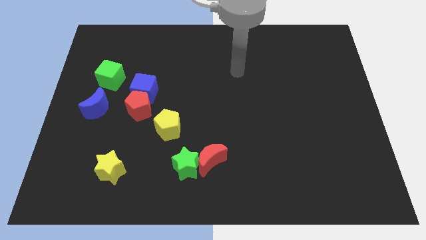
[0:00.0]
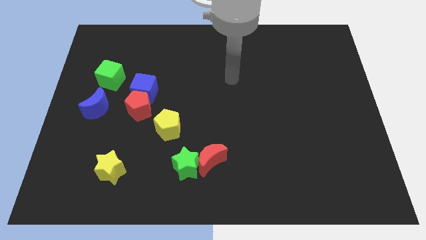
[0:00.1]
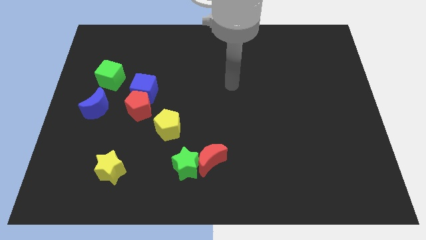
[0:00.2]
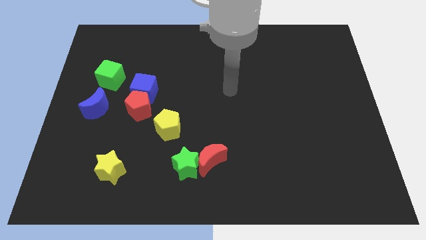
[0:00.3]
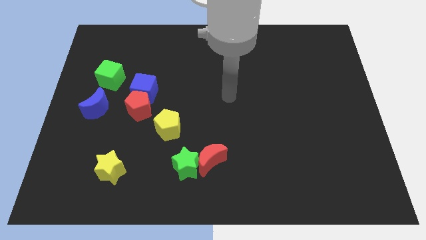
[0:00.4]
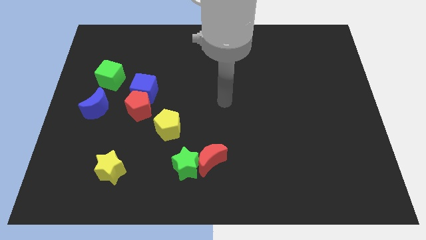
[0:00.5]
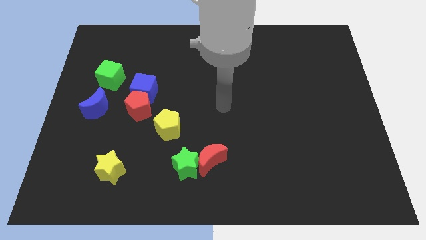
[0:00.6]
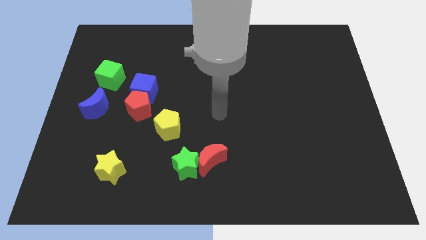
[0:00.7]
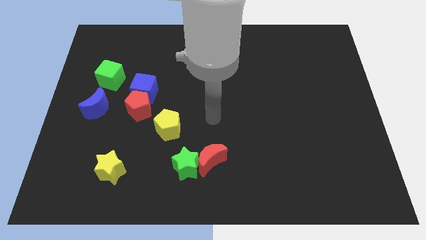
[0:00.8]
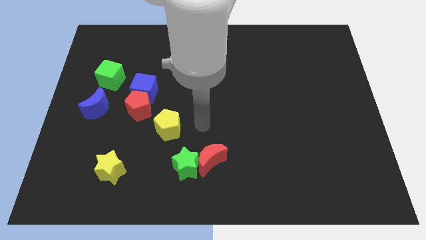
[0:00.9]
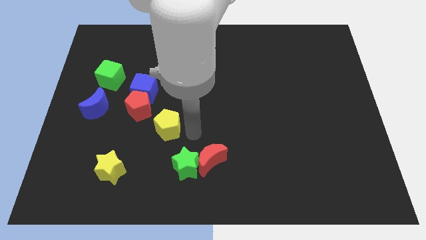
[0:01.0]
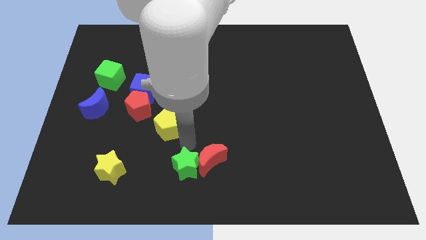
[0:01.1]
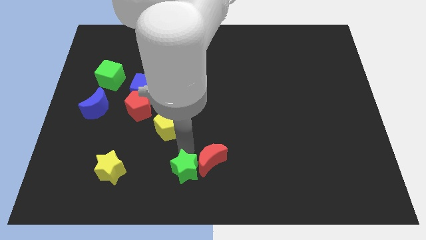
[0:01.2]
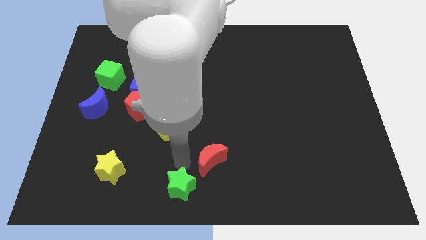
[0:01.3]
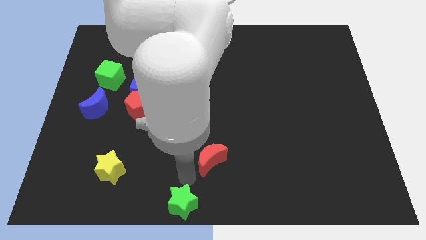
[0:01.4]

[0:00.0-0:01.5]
pull the red moon apart from the green star

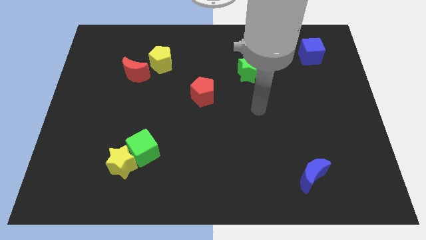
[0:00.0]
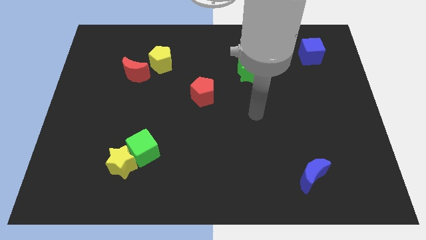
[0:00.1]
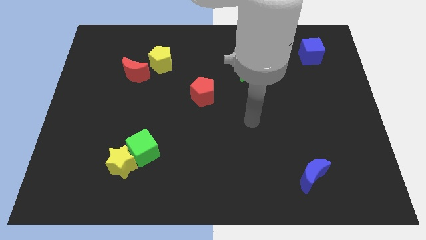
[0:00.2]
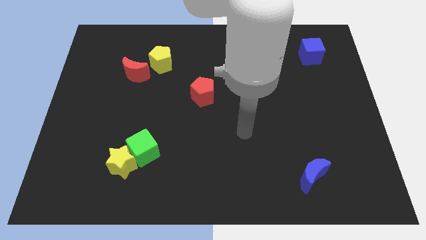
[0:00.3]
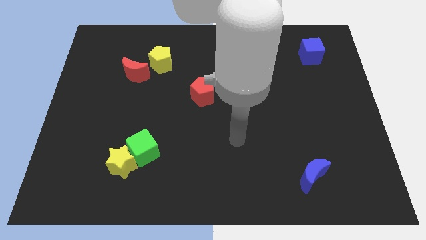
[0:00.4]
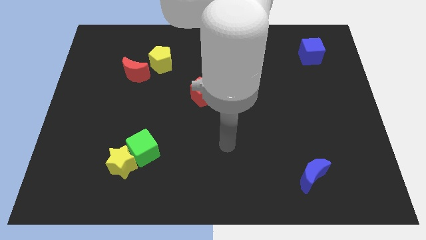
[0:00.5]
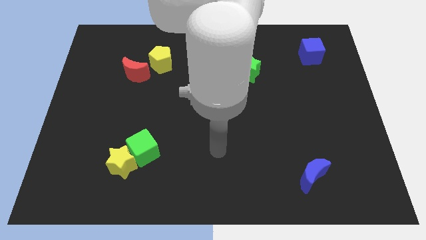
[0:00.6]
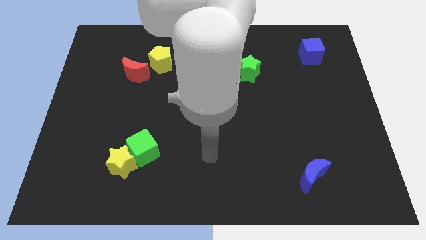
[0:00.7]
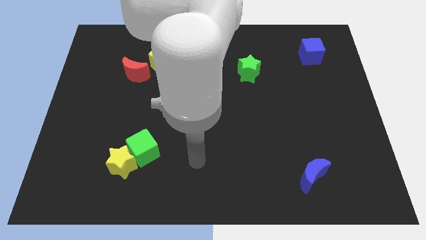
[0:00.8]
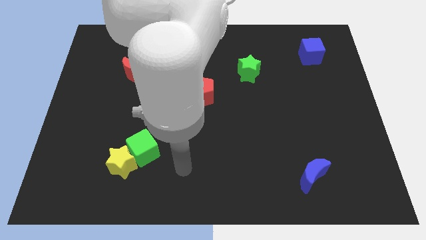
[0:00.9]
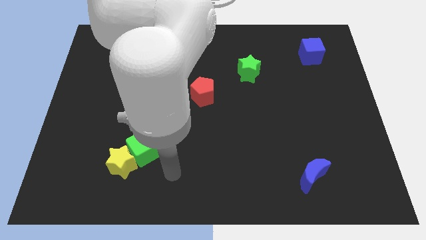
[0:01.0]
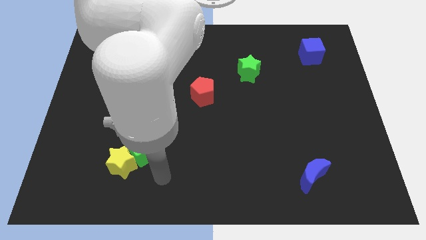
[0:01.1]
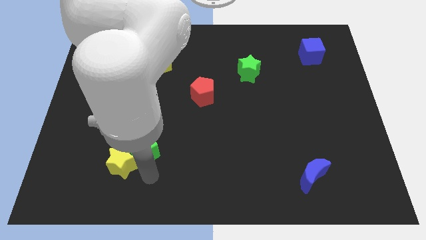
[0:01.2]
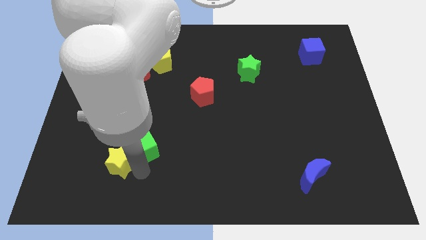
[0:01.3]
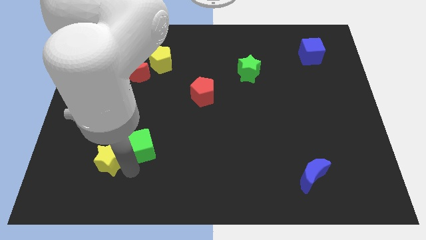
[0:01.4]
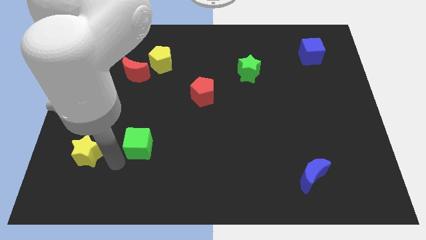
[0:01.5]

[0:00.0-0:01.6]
pull the green cube apart from the yellow star

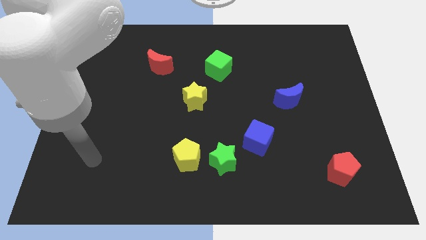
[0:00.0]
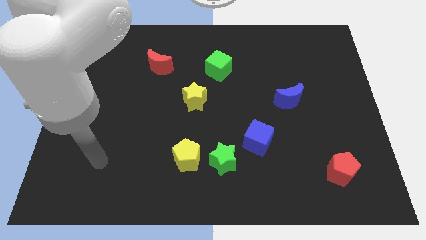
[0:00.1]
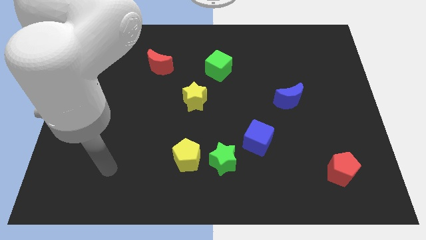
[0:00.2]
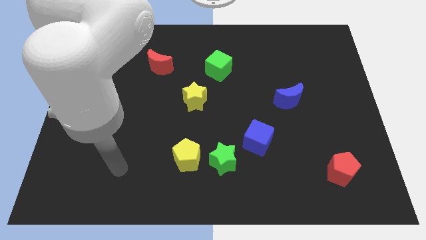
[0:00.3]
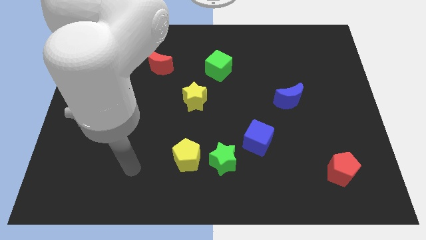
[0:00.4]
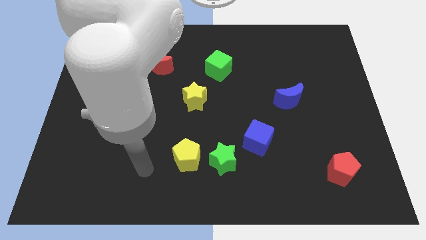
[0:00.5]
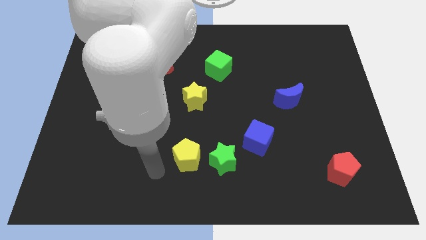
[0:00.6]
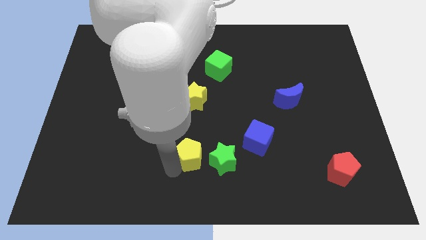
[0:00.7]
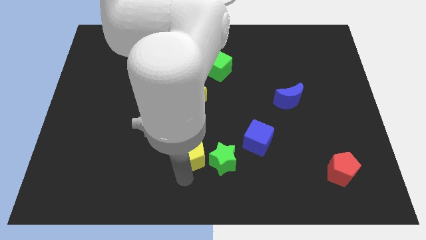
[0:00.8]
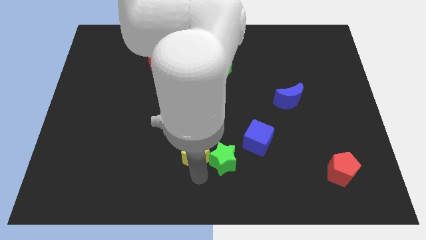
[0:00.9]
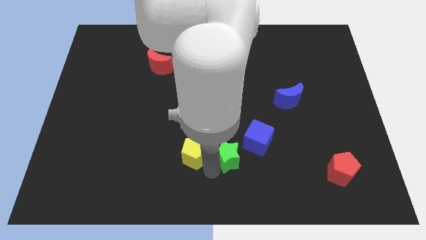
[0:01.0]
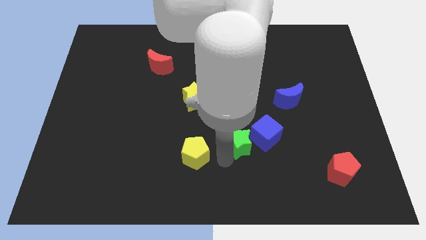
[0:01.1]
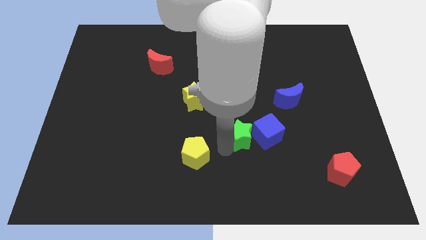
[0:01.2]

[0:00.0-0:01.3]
separate the yellow pentagon from the green star

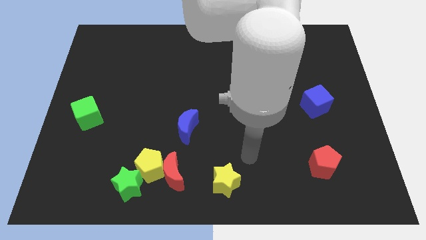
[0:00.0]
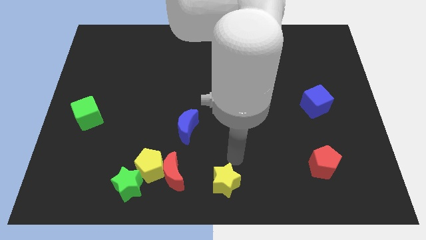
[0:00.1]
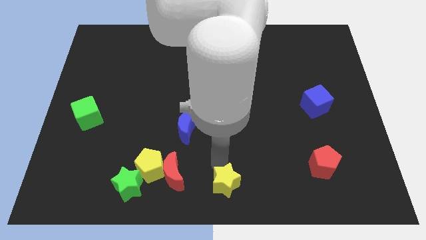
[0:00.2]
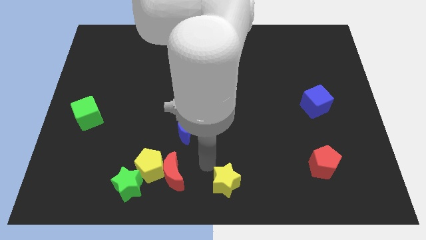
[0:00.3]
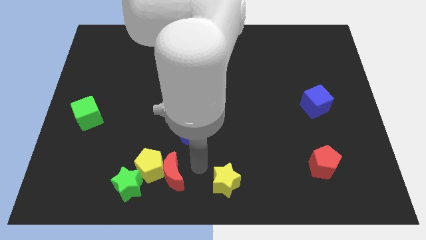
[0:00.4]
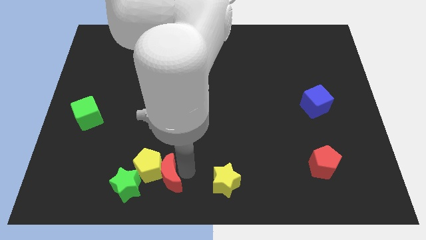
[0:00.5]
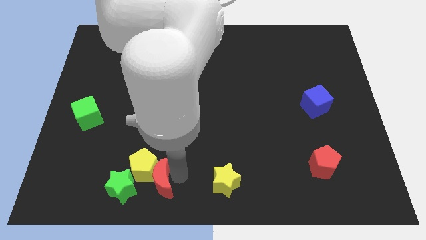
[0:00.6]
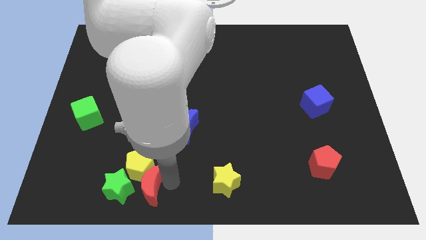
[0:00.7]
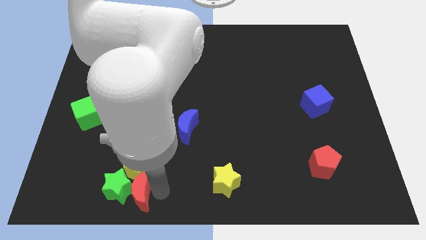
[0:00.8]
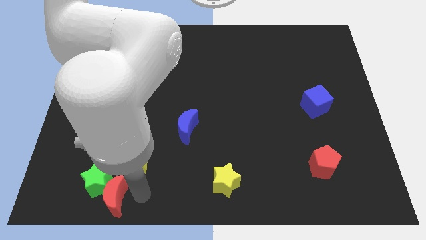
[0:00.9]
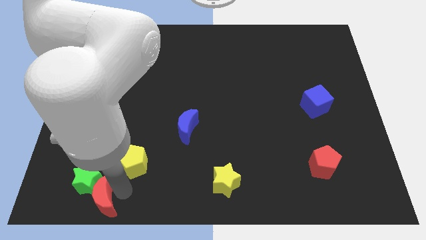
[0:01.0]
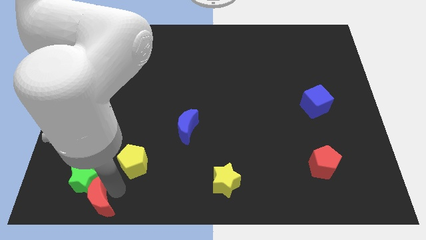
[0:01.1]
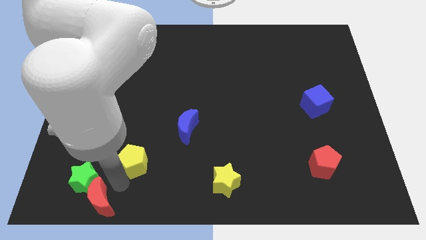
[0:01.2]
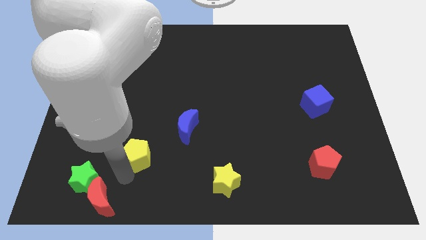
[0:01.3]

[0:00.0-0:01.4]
move the yellow pentagon away from the red moon and green star

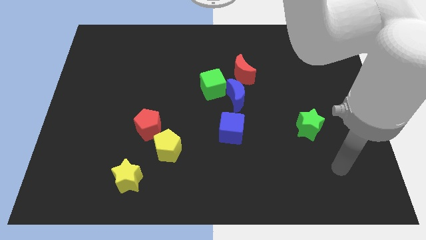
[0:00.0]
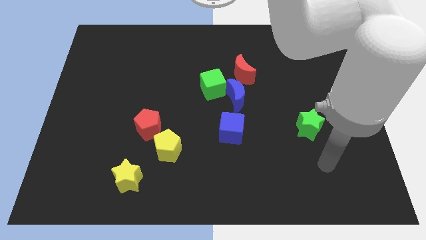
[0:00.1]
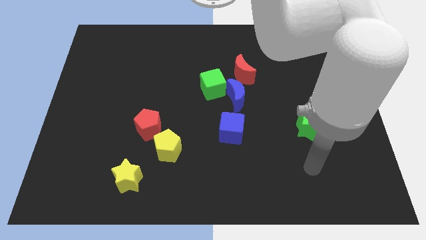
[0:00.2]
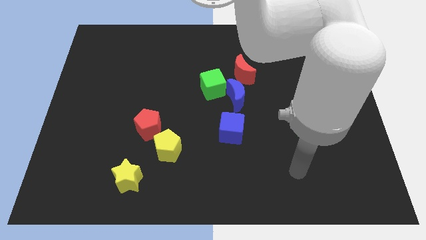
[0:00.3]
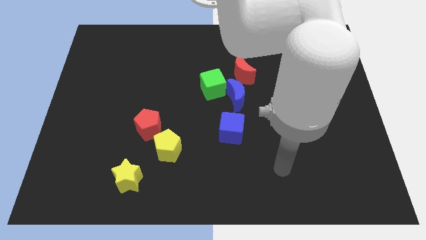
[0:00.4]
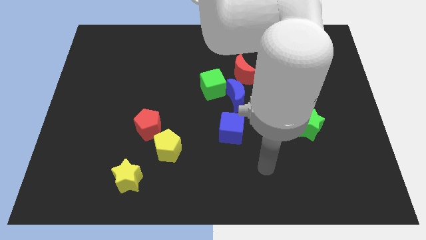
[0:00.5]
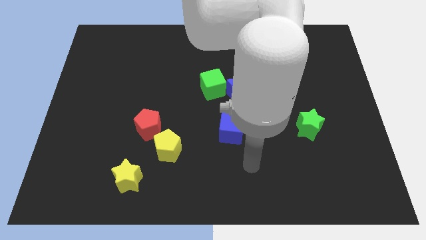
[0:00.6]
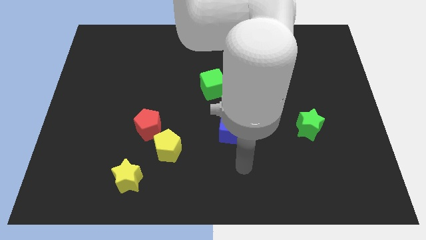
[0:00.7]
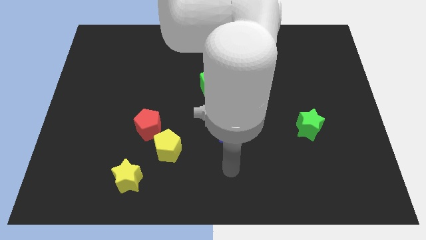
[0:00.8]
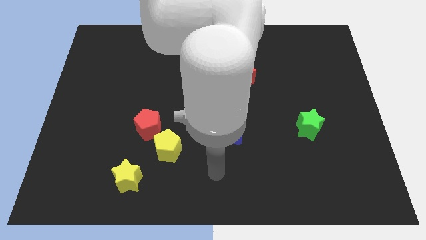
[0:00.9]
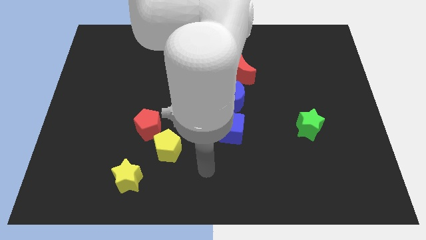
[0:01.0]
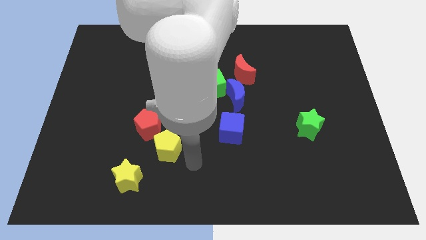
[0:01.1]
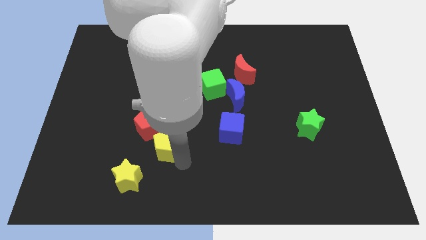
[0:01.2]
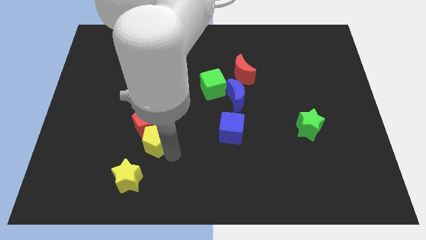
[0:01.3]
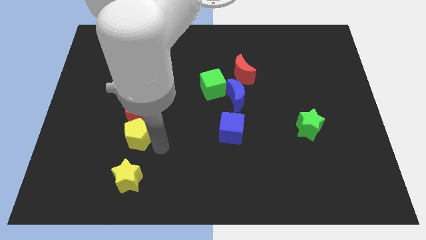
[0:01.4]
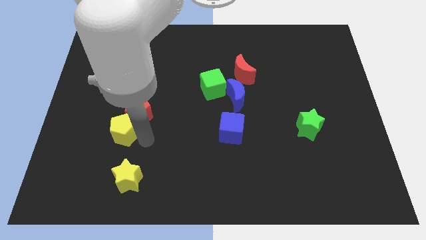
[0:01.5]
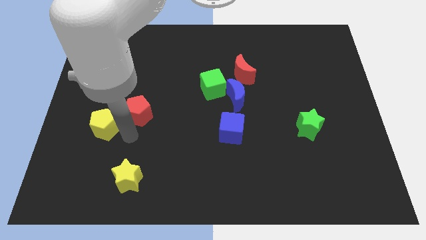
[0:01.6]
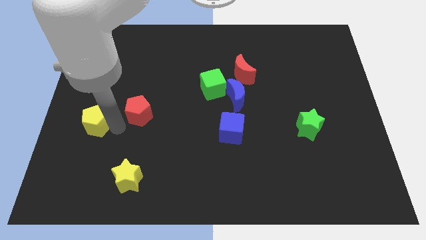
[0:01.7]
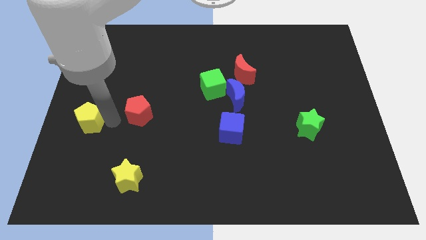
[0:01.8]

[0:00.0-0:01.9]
separate the red pentagon from the yellow pentagon

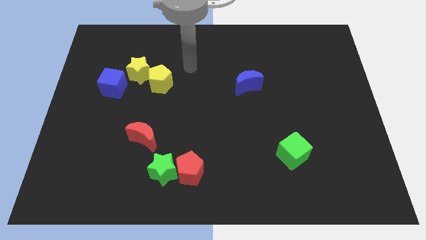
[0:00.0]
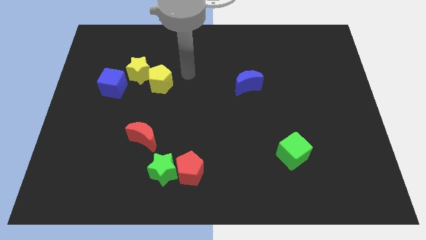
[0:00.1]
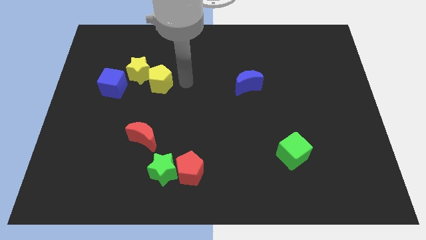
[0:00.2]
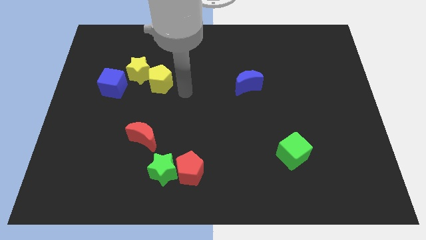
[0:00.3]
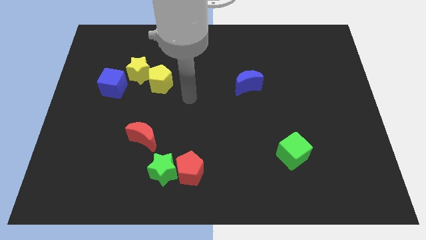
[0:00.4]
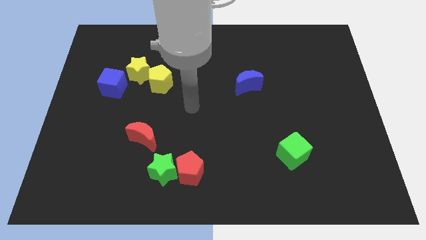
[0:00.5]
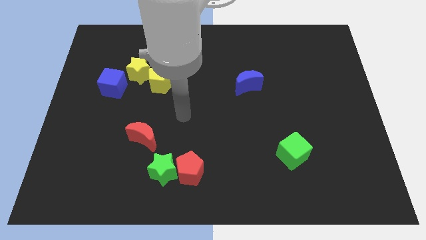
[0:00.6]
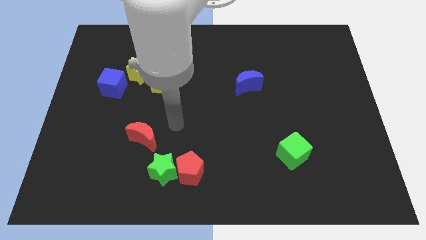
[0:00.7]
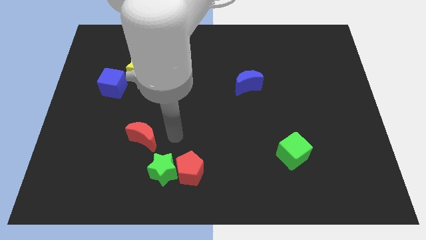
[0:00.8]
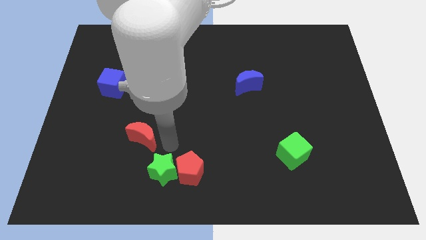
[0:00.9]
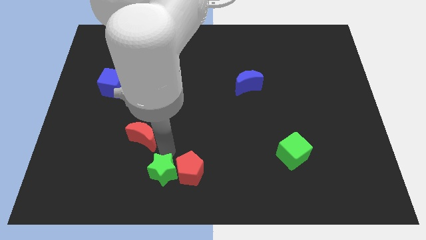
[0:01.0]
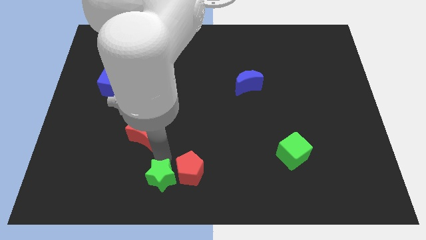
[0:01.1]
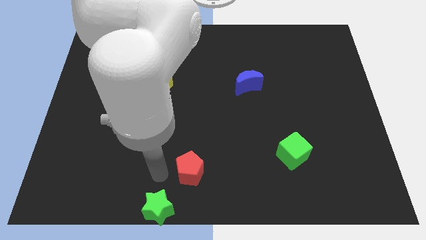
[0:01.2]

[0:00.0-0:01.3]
move the red pentagon away from the green star

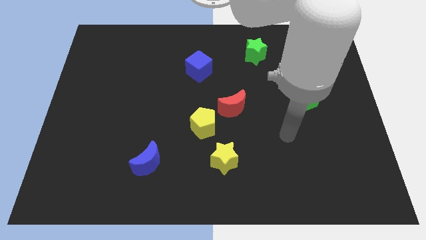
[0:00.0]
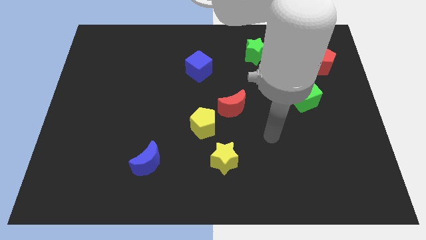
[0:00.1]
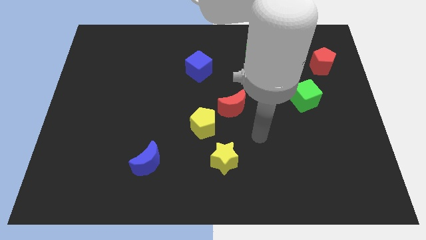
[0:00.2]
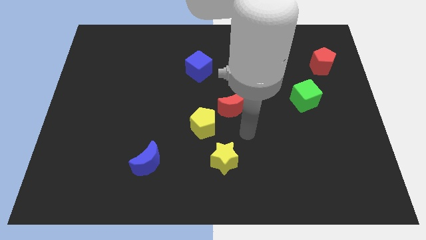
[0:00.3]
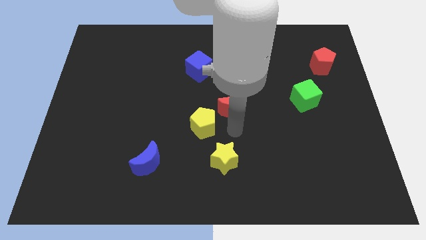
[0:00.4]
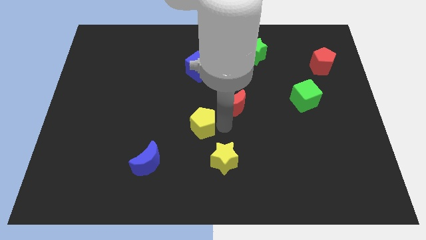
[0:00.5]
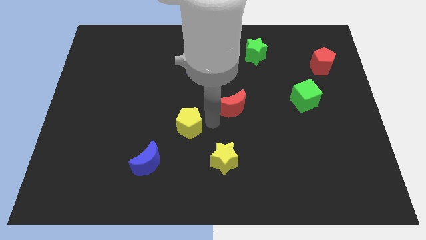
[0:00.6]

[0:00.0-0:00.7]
separate the red moon from the yellow pentagon
